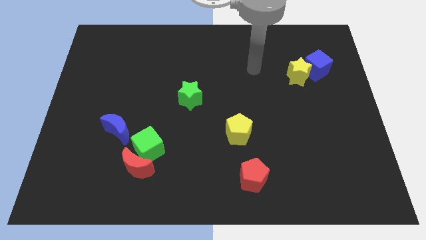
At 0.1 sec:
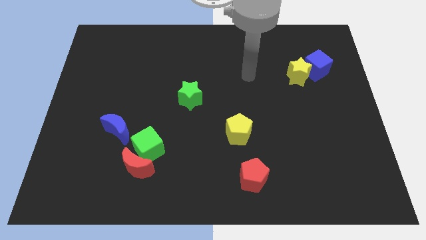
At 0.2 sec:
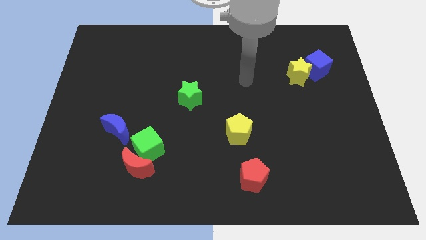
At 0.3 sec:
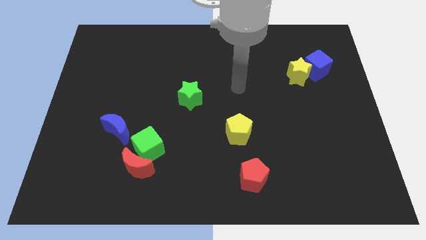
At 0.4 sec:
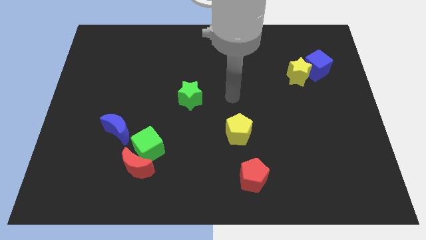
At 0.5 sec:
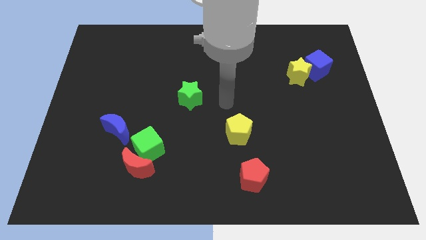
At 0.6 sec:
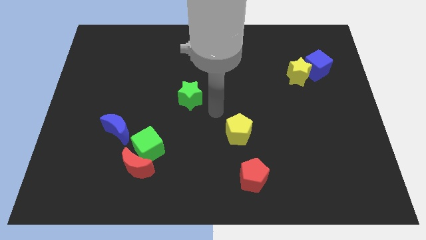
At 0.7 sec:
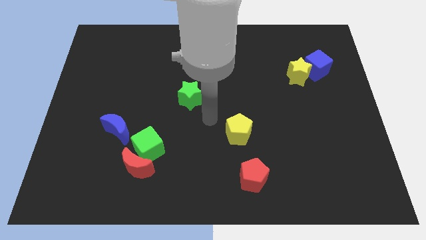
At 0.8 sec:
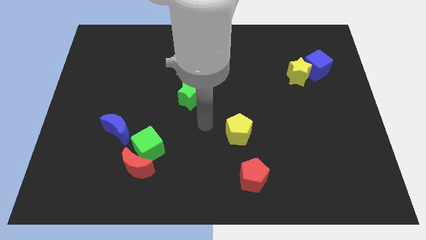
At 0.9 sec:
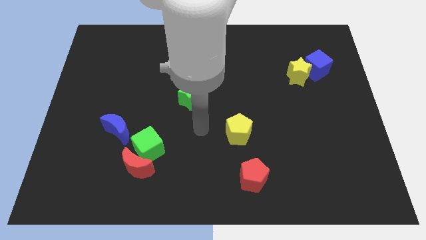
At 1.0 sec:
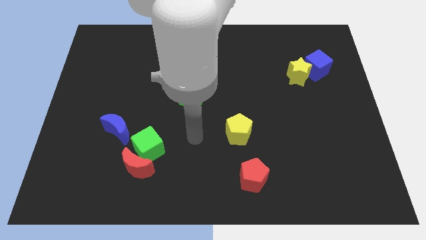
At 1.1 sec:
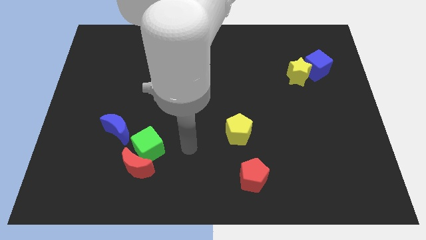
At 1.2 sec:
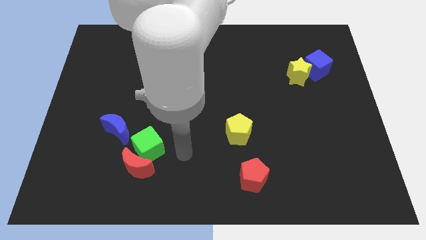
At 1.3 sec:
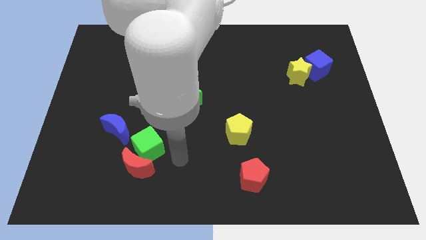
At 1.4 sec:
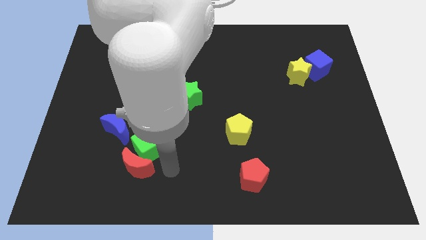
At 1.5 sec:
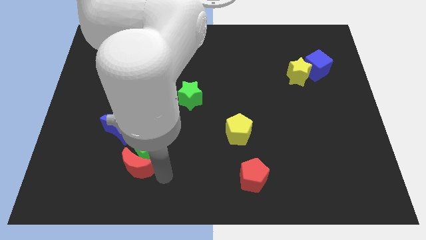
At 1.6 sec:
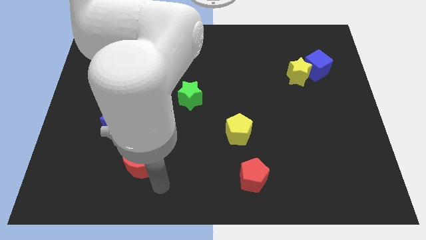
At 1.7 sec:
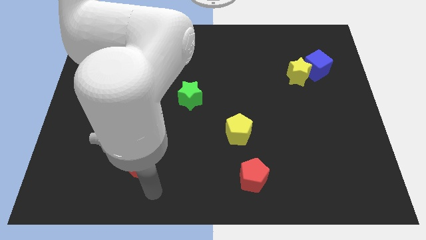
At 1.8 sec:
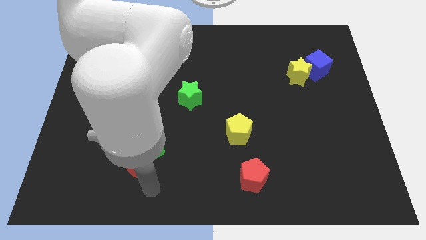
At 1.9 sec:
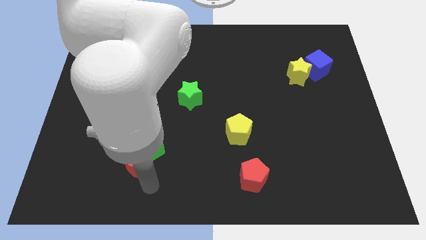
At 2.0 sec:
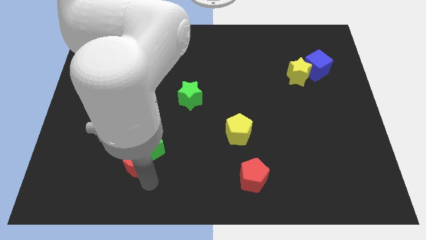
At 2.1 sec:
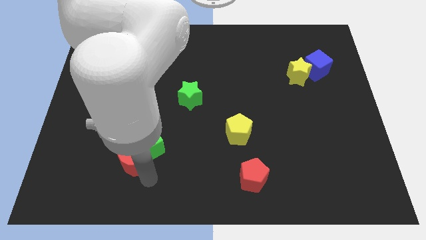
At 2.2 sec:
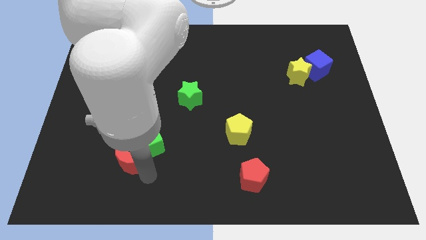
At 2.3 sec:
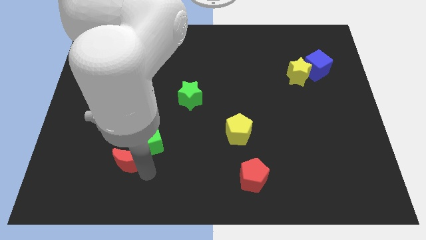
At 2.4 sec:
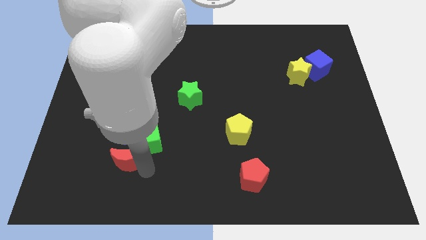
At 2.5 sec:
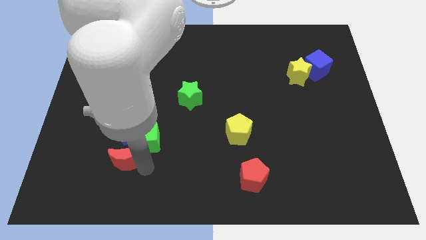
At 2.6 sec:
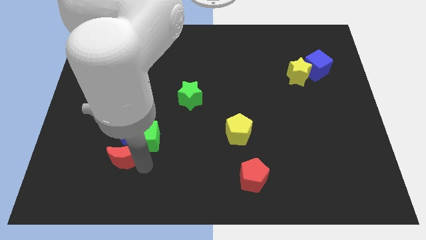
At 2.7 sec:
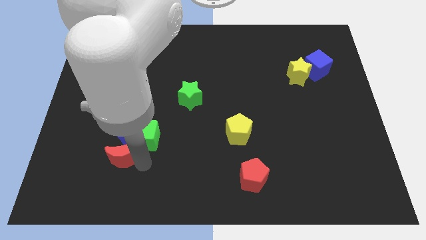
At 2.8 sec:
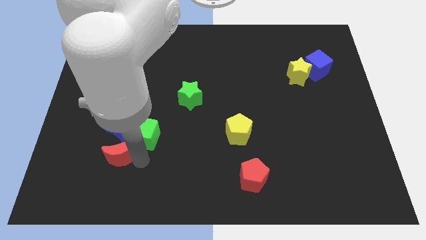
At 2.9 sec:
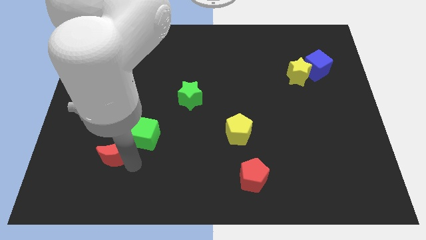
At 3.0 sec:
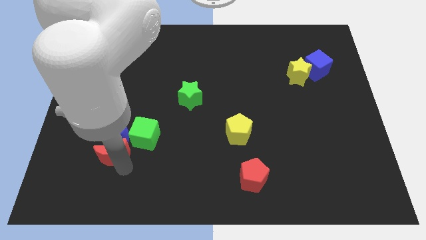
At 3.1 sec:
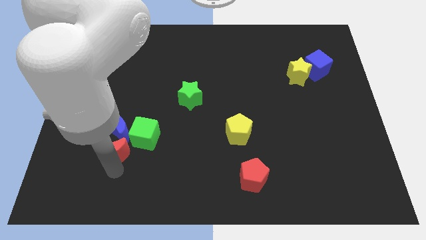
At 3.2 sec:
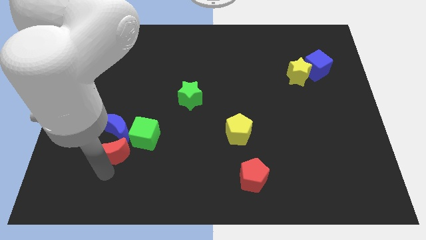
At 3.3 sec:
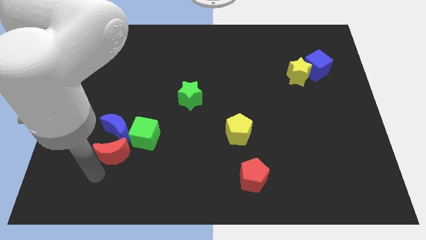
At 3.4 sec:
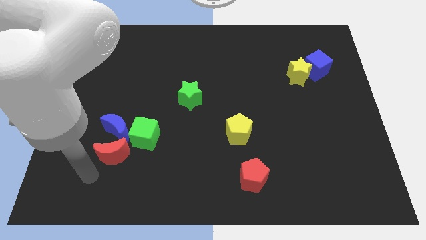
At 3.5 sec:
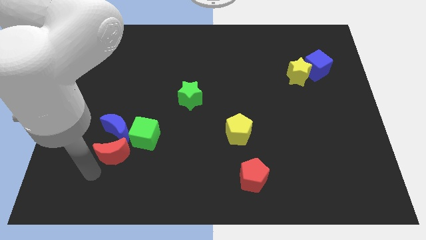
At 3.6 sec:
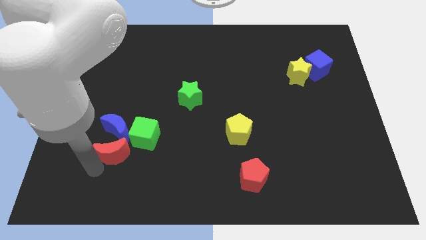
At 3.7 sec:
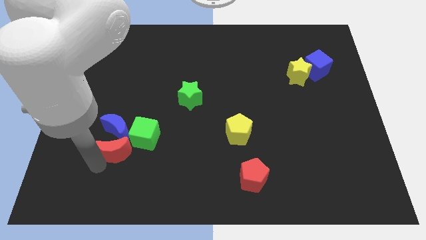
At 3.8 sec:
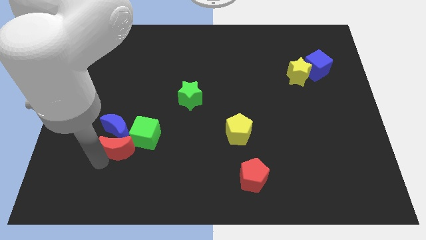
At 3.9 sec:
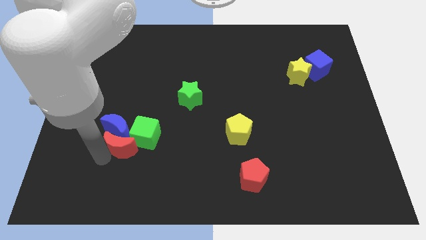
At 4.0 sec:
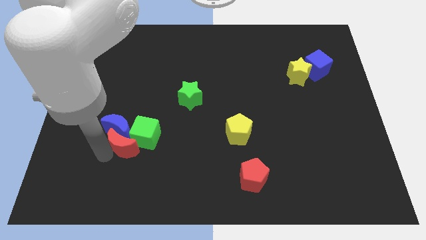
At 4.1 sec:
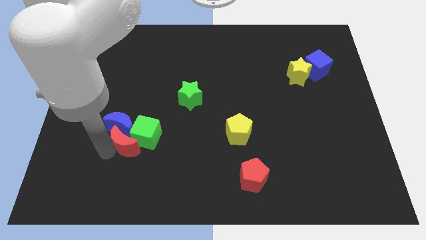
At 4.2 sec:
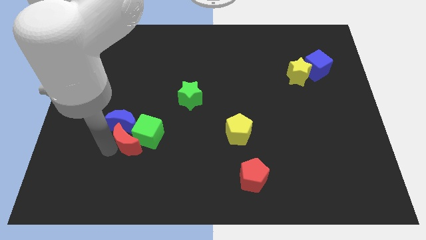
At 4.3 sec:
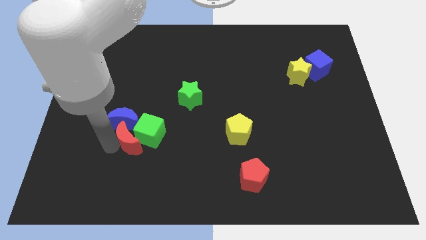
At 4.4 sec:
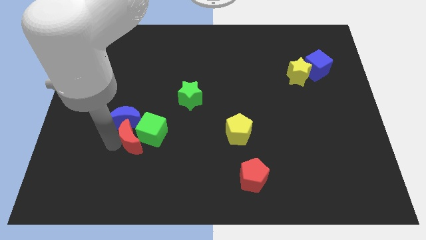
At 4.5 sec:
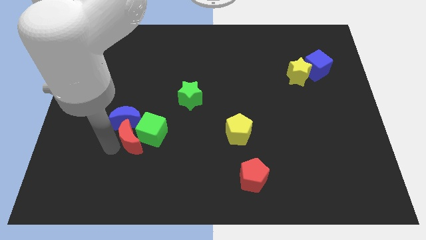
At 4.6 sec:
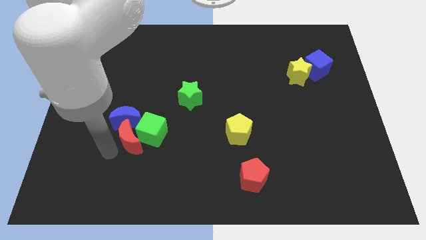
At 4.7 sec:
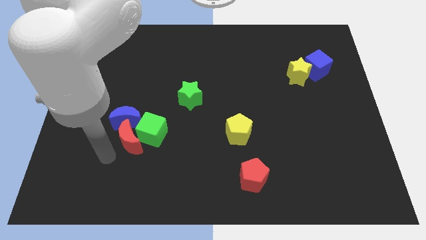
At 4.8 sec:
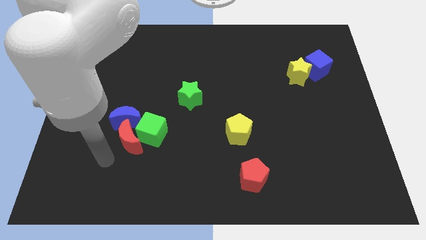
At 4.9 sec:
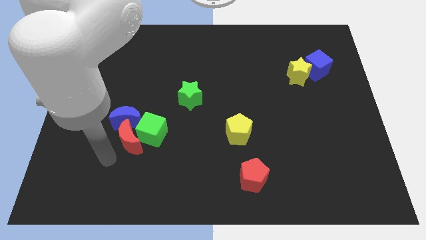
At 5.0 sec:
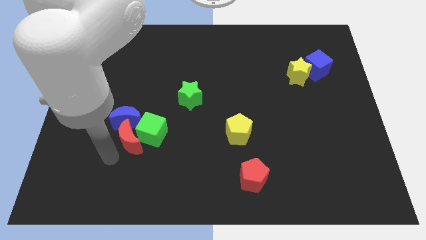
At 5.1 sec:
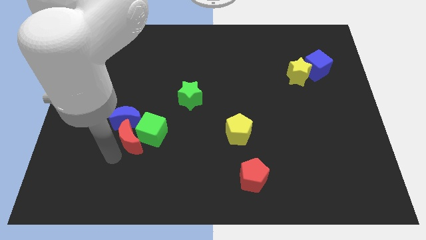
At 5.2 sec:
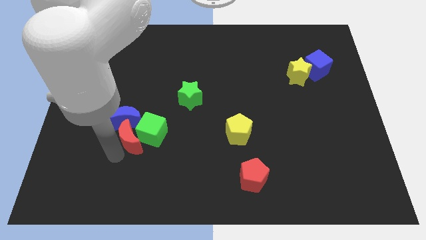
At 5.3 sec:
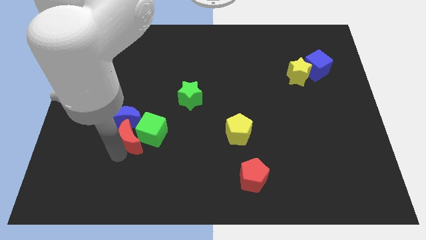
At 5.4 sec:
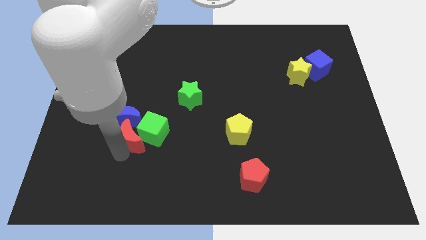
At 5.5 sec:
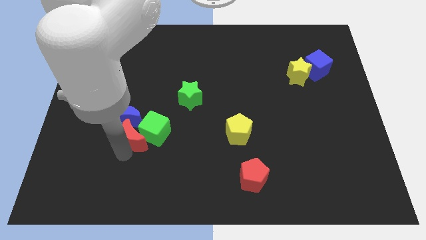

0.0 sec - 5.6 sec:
slide the red moon upwards a little bit

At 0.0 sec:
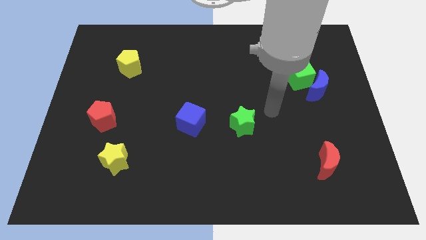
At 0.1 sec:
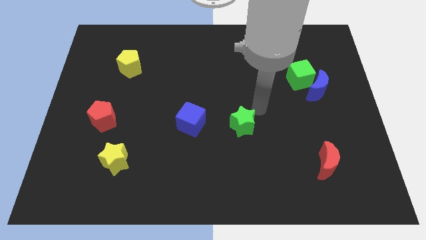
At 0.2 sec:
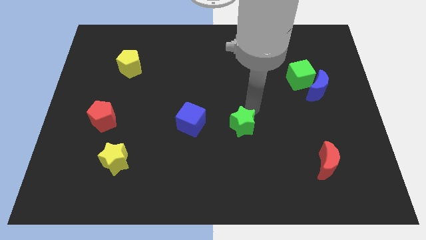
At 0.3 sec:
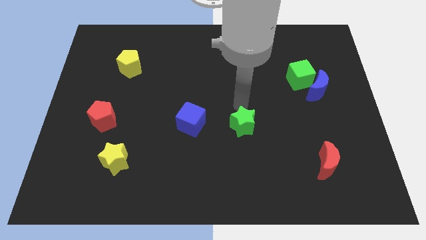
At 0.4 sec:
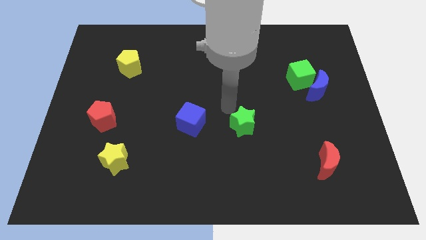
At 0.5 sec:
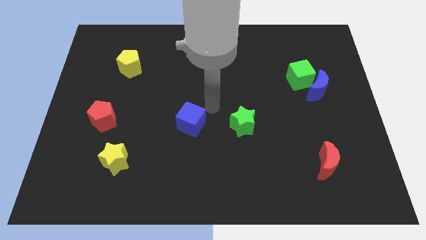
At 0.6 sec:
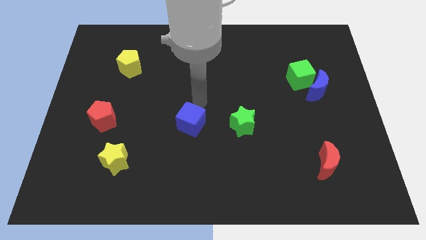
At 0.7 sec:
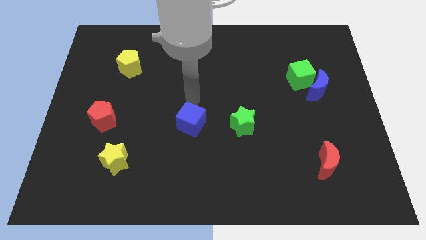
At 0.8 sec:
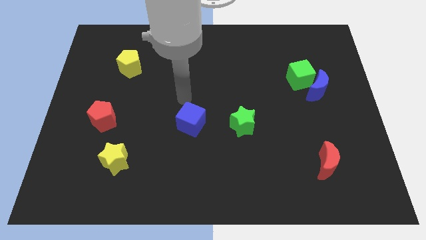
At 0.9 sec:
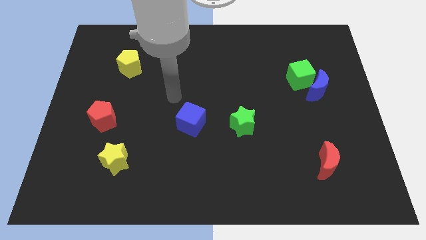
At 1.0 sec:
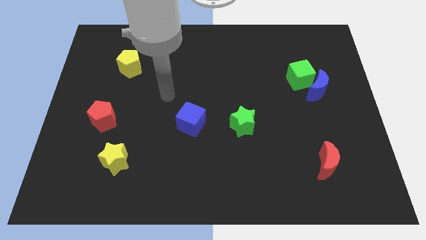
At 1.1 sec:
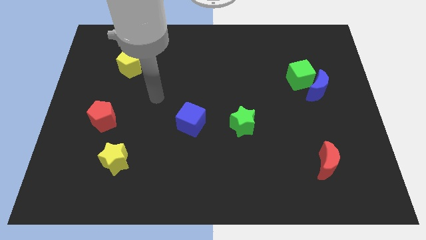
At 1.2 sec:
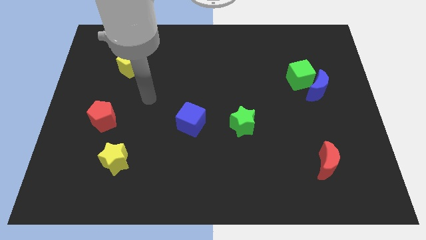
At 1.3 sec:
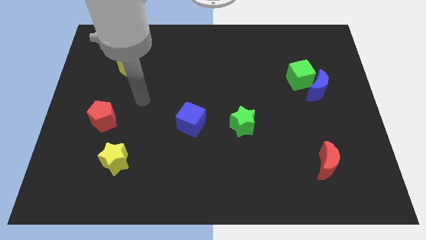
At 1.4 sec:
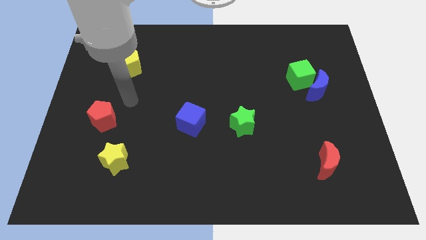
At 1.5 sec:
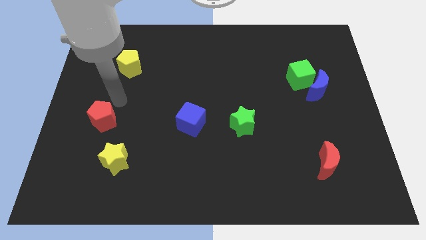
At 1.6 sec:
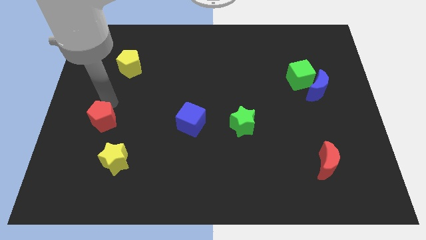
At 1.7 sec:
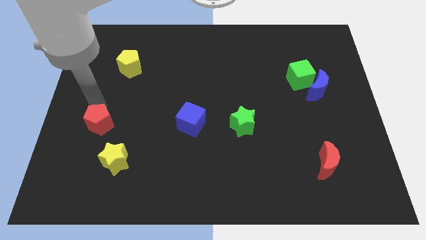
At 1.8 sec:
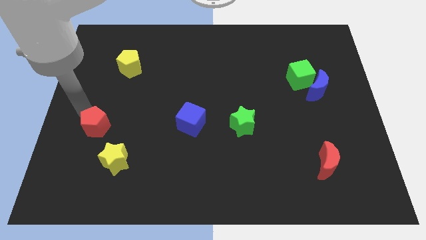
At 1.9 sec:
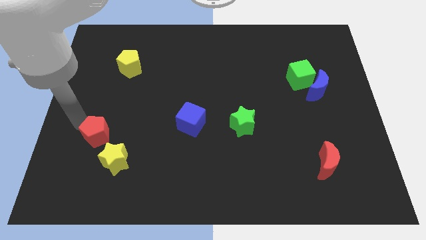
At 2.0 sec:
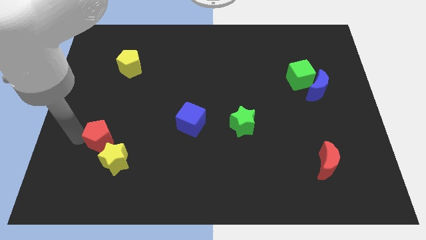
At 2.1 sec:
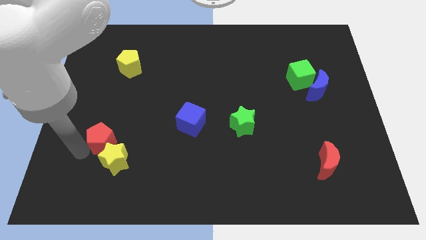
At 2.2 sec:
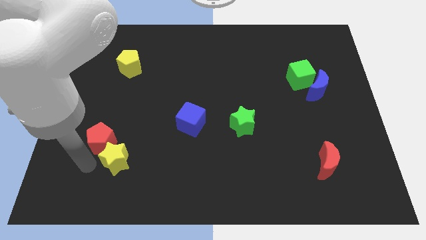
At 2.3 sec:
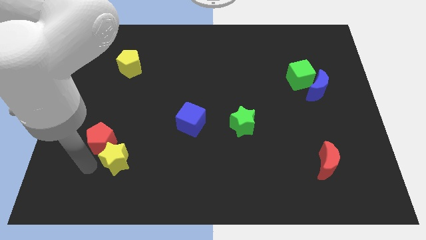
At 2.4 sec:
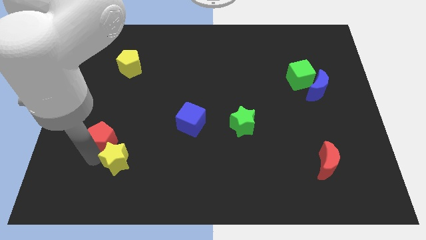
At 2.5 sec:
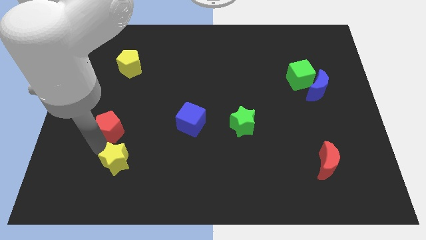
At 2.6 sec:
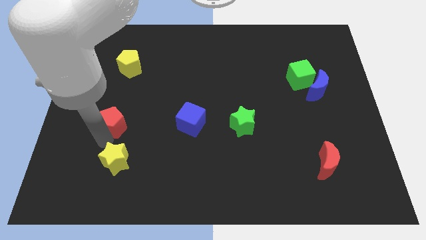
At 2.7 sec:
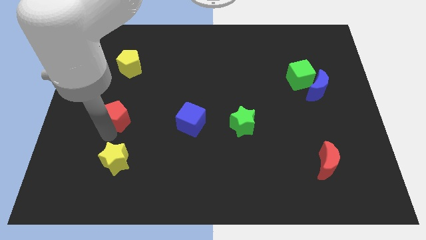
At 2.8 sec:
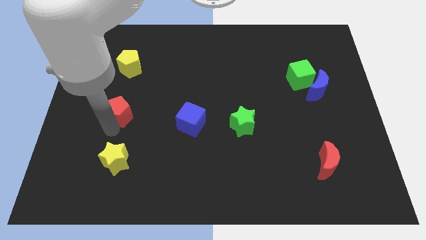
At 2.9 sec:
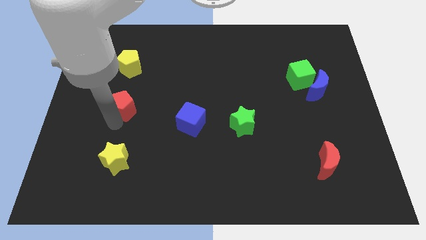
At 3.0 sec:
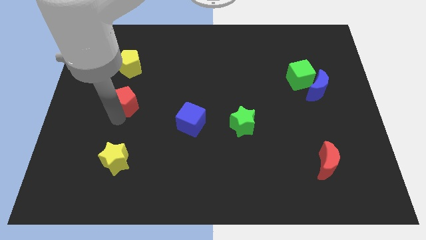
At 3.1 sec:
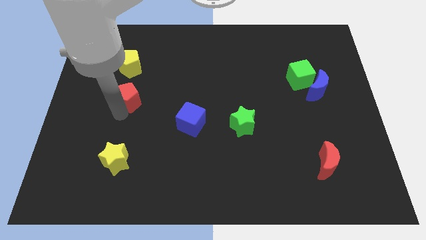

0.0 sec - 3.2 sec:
slightly push the red pentagon up and to the right diagonally
